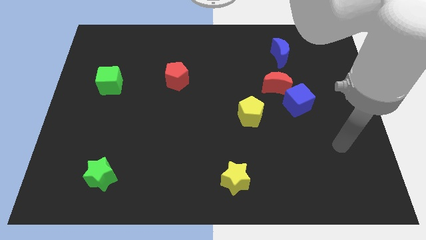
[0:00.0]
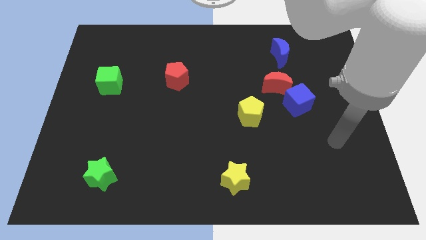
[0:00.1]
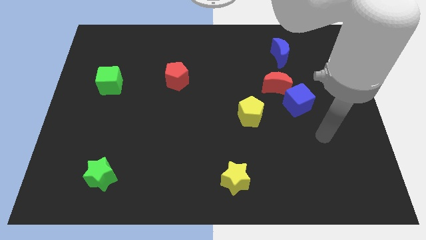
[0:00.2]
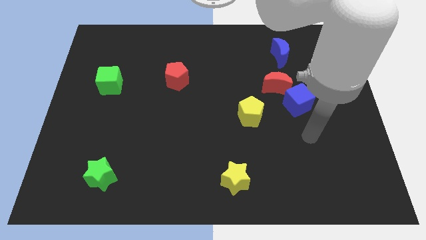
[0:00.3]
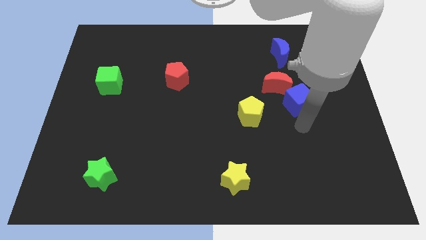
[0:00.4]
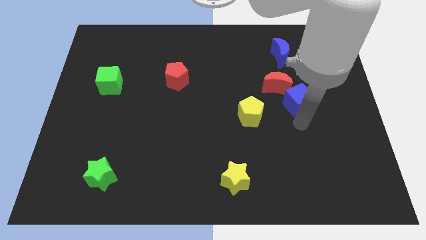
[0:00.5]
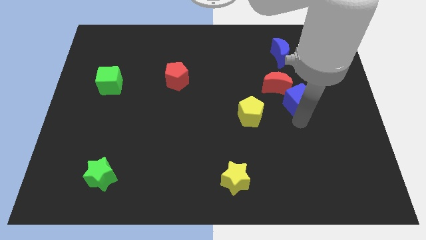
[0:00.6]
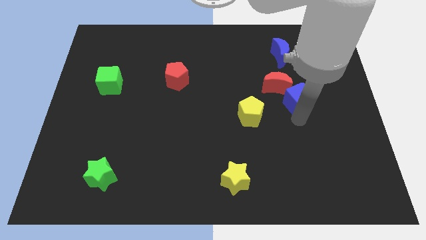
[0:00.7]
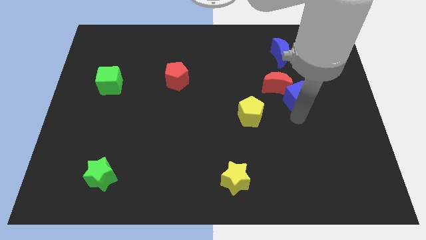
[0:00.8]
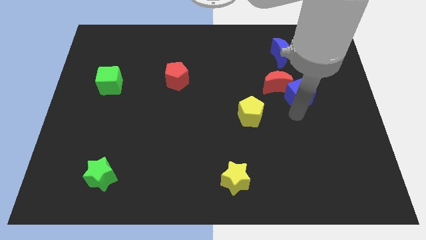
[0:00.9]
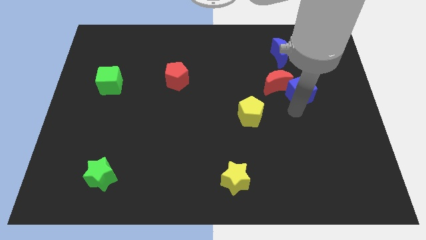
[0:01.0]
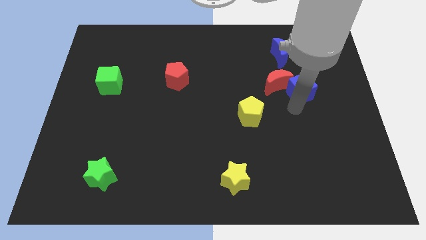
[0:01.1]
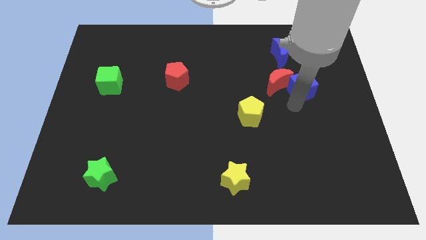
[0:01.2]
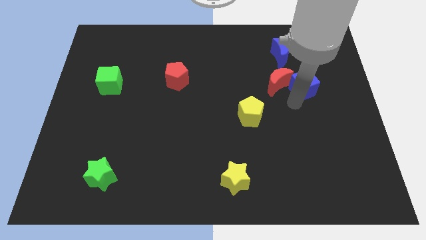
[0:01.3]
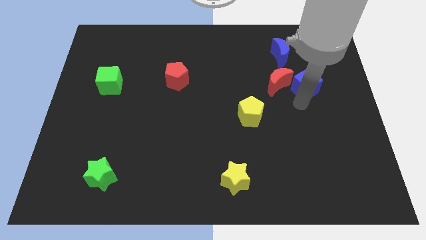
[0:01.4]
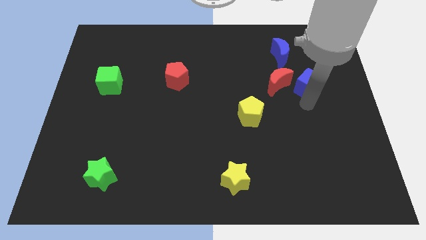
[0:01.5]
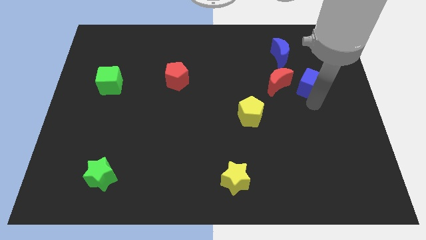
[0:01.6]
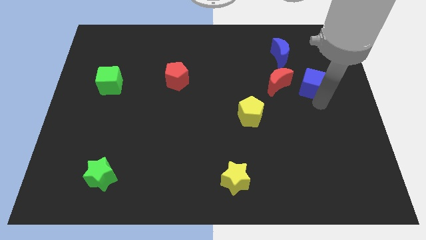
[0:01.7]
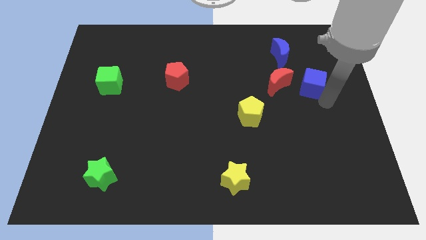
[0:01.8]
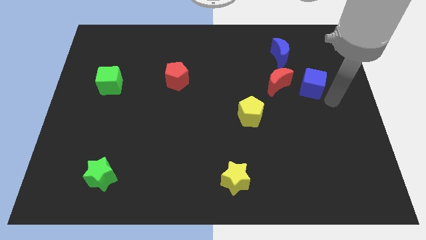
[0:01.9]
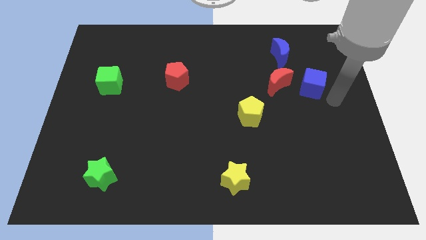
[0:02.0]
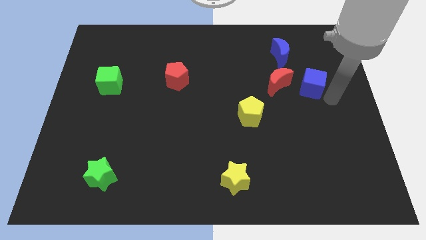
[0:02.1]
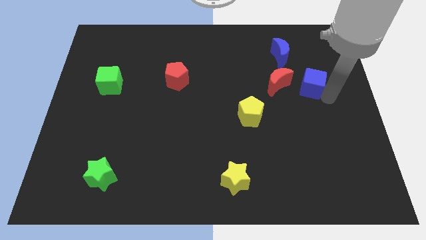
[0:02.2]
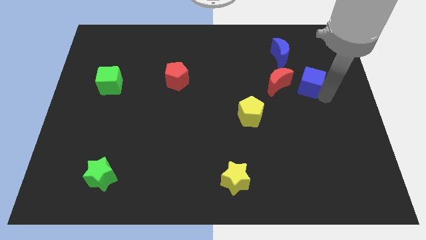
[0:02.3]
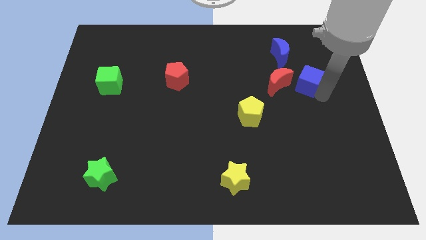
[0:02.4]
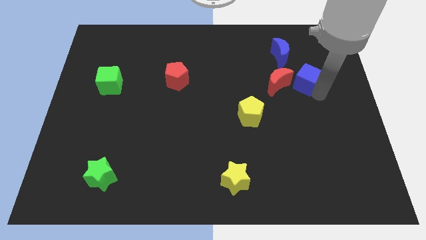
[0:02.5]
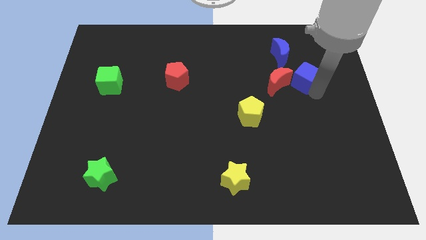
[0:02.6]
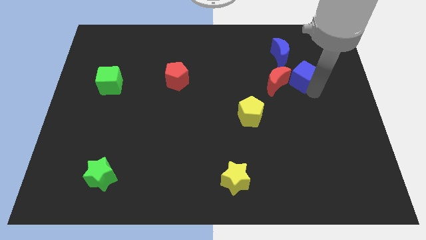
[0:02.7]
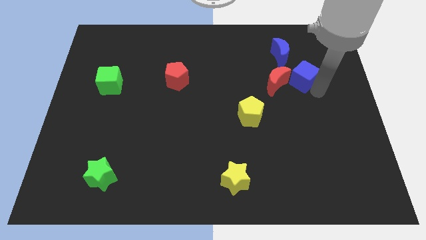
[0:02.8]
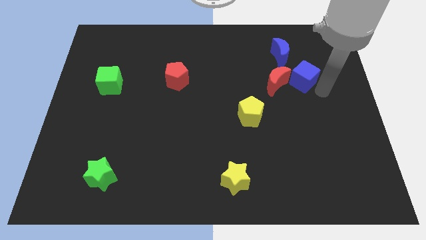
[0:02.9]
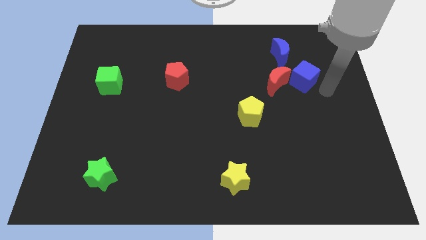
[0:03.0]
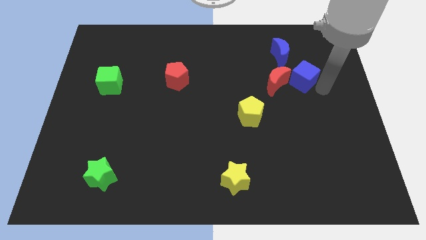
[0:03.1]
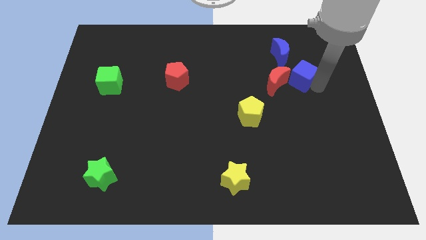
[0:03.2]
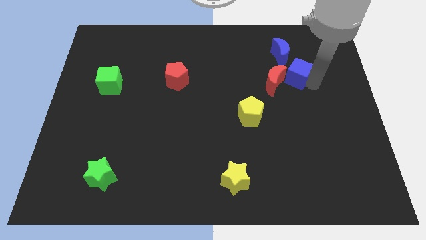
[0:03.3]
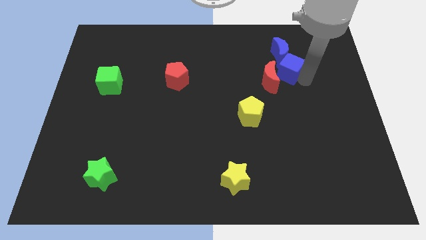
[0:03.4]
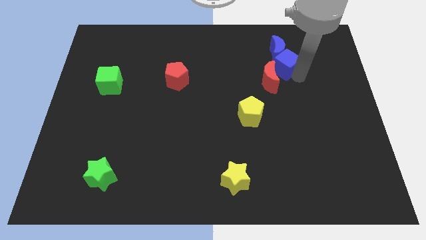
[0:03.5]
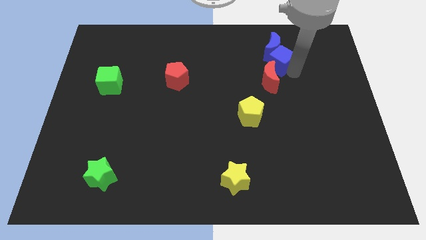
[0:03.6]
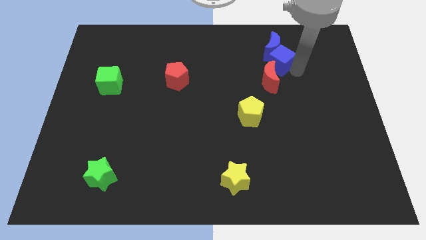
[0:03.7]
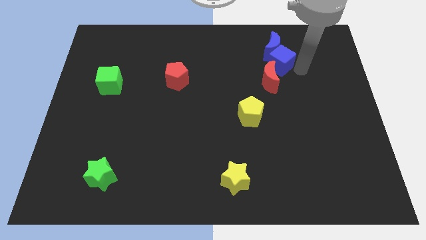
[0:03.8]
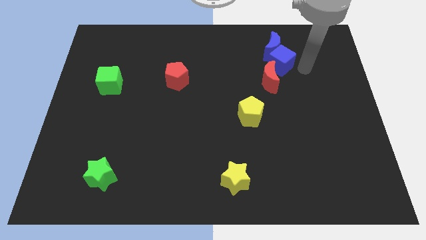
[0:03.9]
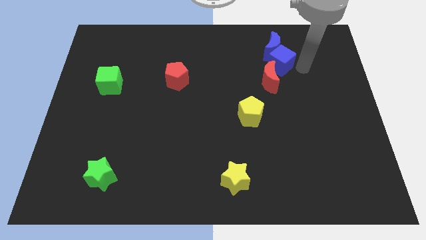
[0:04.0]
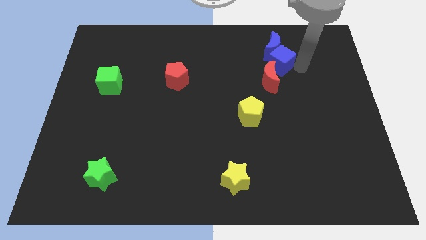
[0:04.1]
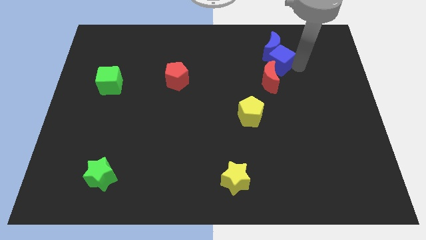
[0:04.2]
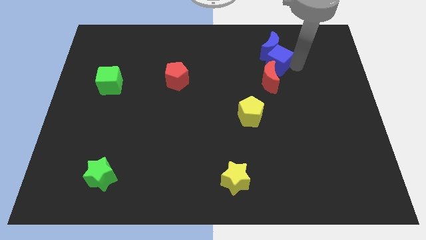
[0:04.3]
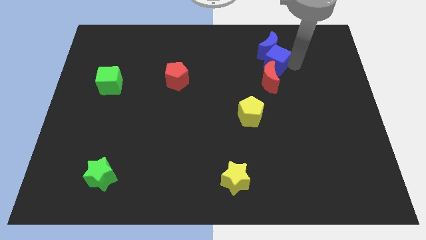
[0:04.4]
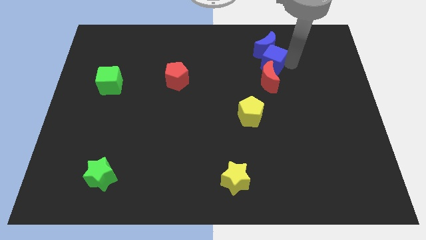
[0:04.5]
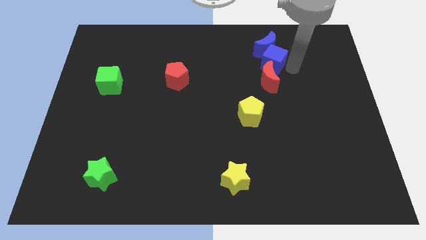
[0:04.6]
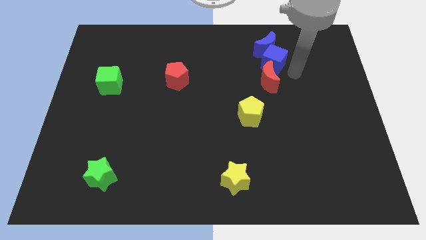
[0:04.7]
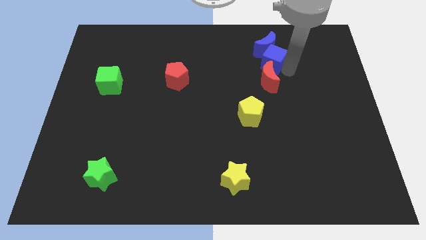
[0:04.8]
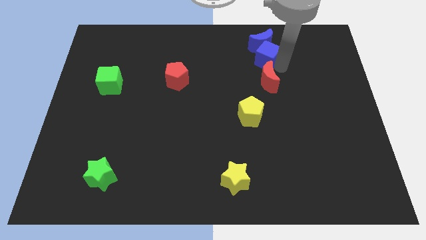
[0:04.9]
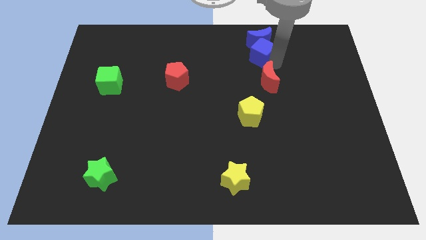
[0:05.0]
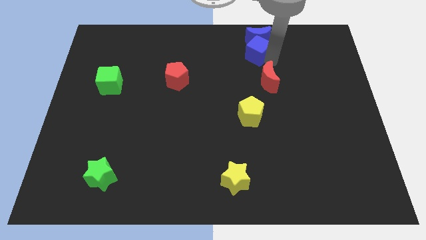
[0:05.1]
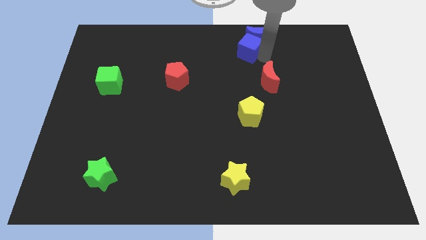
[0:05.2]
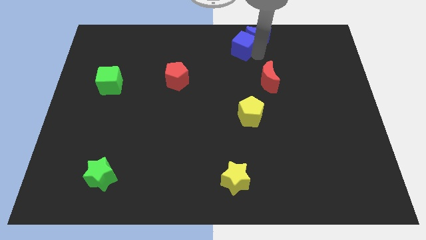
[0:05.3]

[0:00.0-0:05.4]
push the blue cube to the top side
